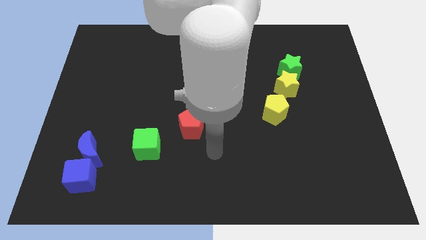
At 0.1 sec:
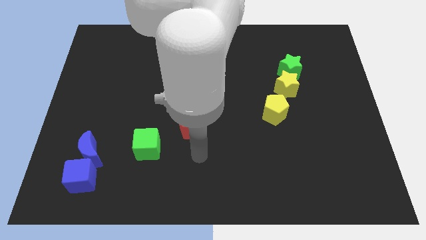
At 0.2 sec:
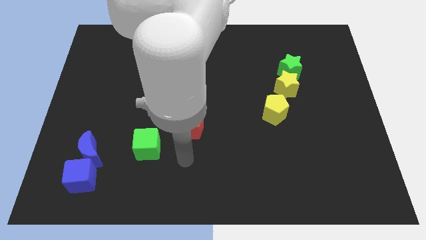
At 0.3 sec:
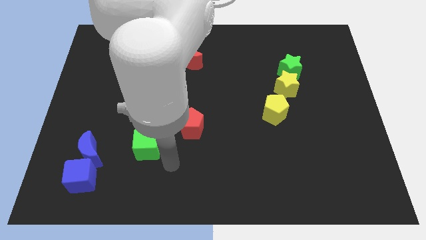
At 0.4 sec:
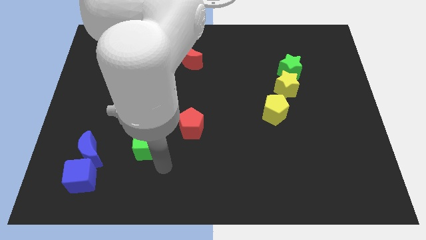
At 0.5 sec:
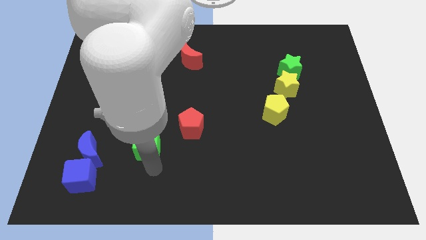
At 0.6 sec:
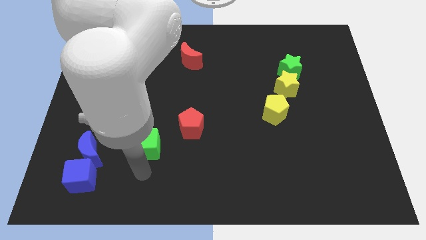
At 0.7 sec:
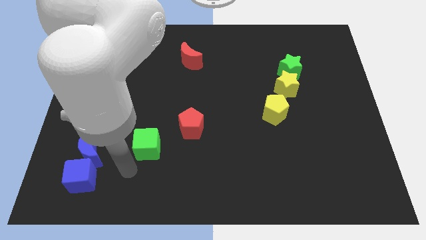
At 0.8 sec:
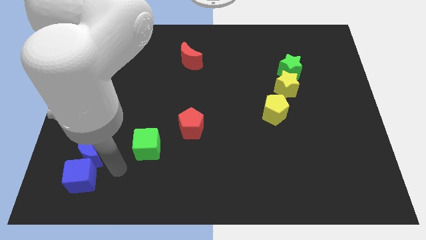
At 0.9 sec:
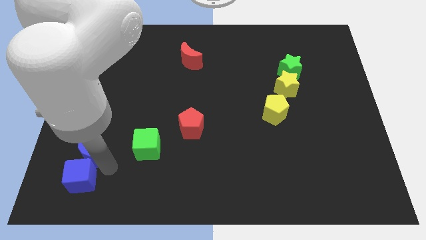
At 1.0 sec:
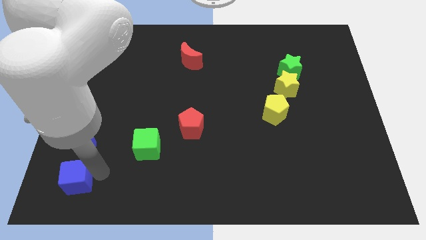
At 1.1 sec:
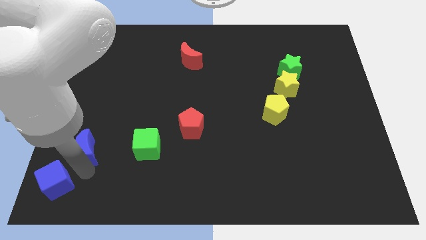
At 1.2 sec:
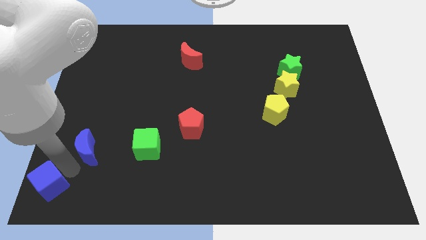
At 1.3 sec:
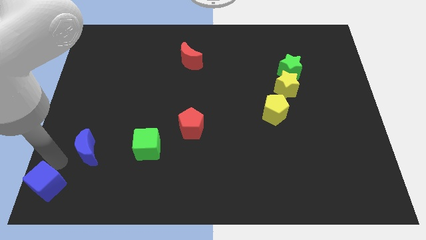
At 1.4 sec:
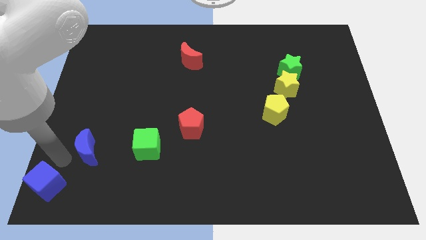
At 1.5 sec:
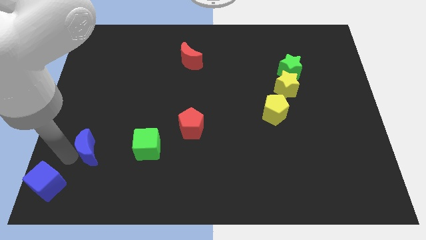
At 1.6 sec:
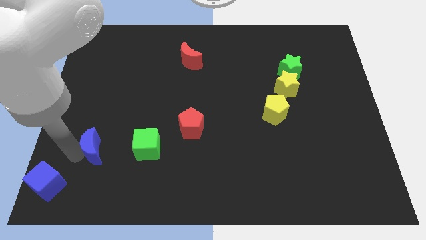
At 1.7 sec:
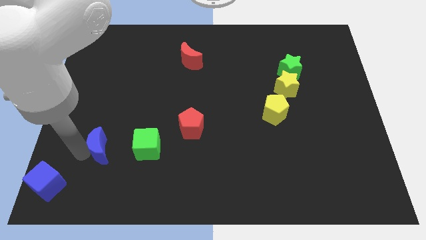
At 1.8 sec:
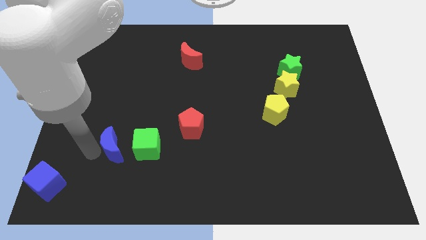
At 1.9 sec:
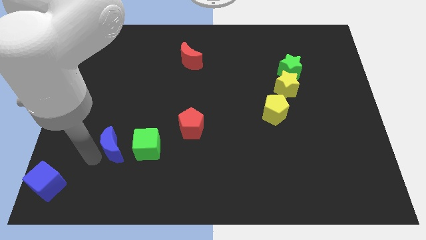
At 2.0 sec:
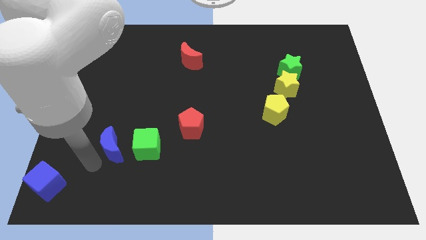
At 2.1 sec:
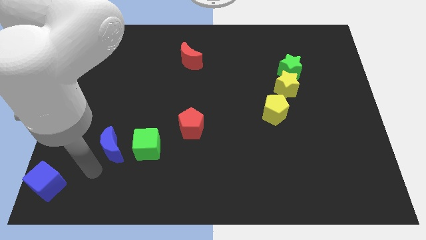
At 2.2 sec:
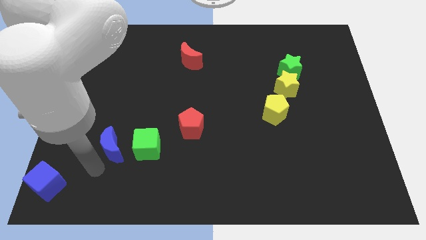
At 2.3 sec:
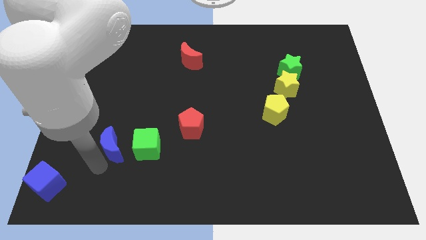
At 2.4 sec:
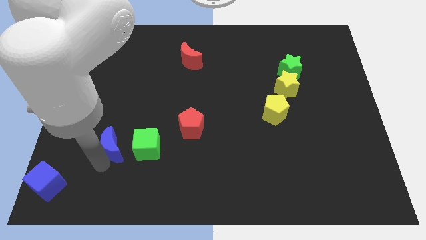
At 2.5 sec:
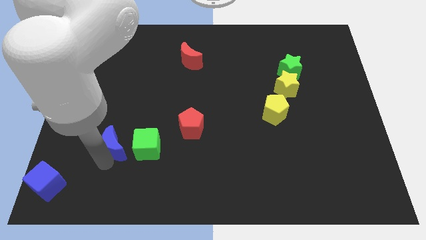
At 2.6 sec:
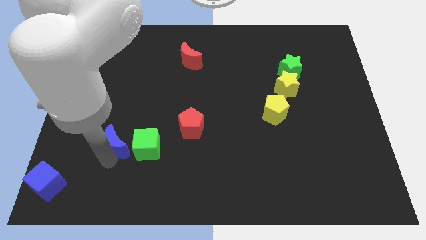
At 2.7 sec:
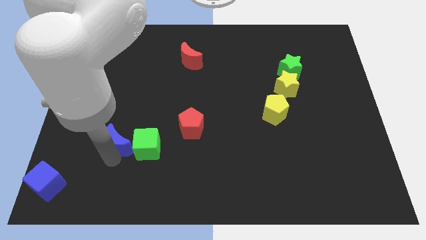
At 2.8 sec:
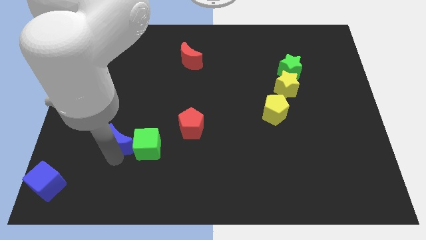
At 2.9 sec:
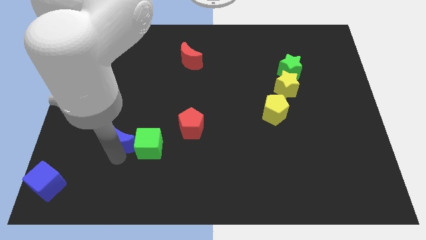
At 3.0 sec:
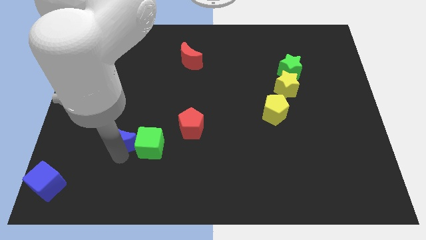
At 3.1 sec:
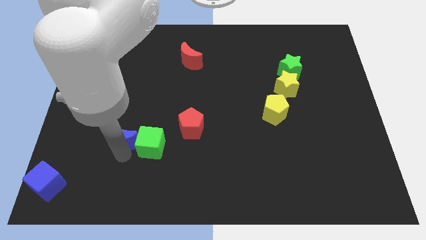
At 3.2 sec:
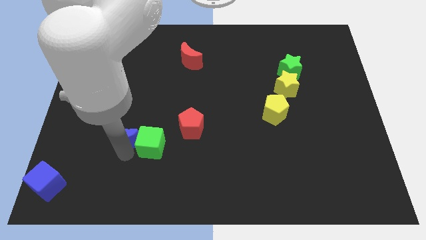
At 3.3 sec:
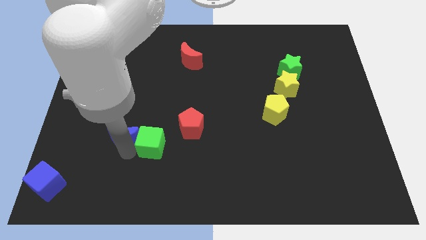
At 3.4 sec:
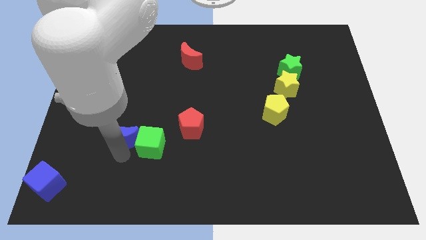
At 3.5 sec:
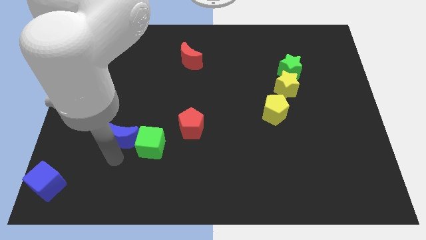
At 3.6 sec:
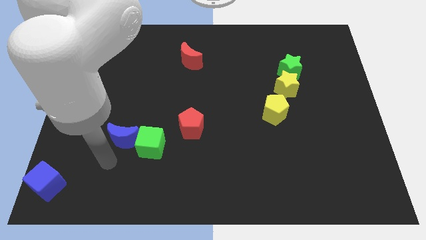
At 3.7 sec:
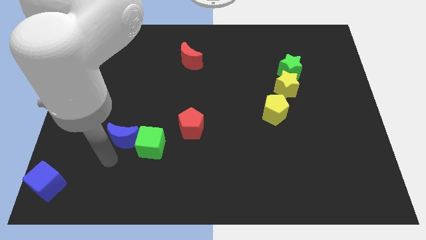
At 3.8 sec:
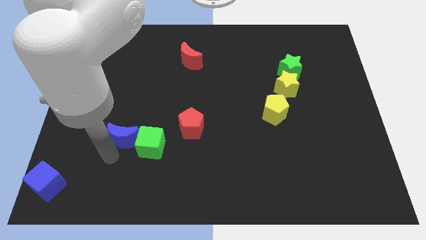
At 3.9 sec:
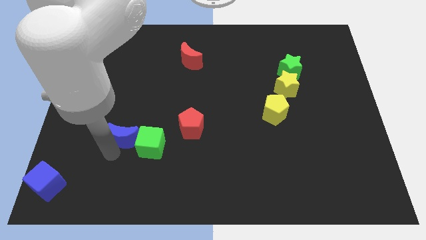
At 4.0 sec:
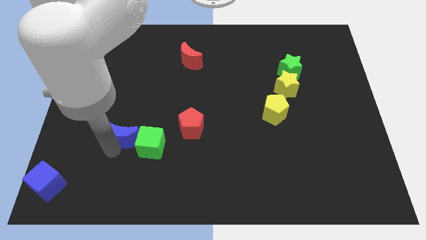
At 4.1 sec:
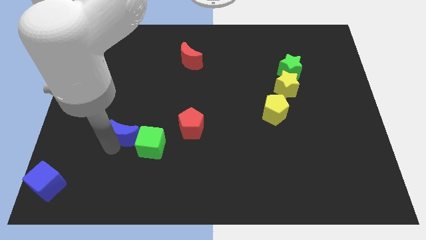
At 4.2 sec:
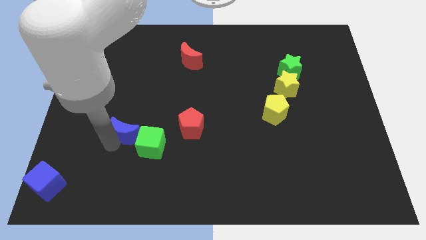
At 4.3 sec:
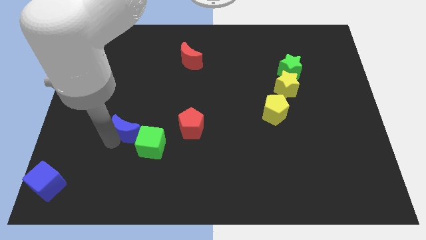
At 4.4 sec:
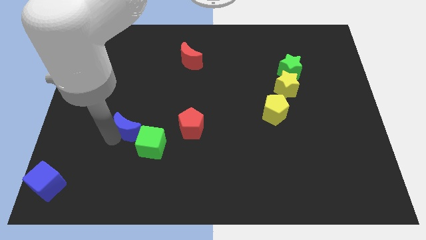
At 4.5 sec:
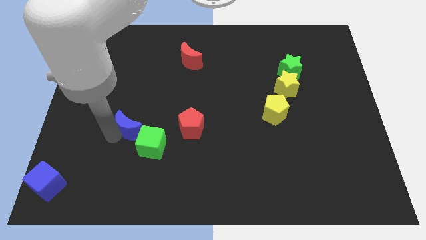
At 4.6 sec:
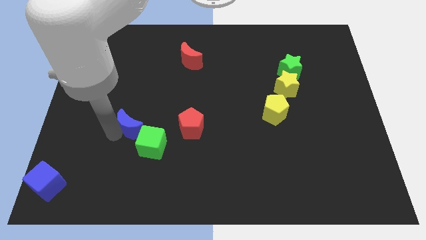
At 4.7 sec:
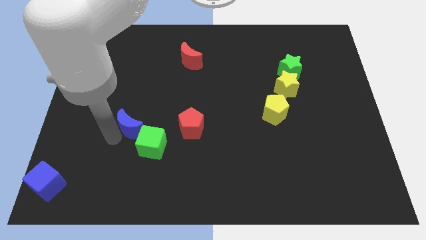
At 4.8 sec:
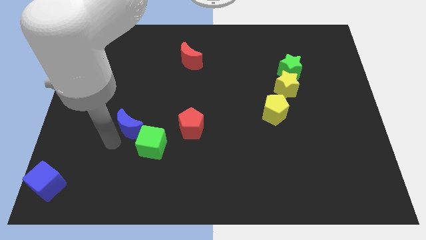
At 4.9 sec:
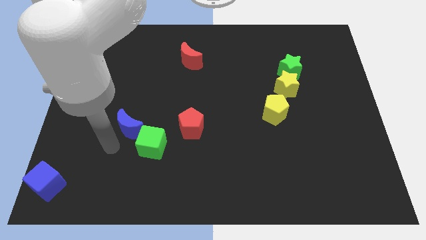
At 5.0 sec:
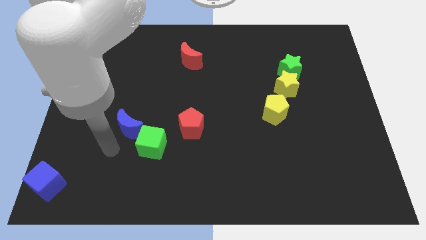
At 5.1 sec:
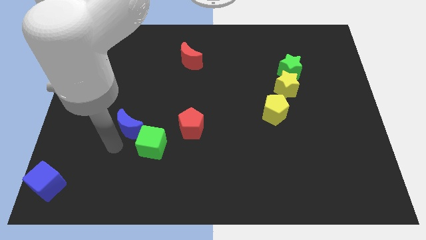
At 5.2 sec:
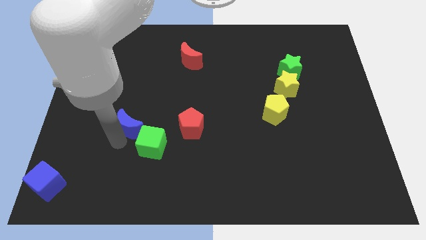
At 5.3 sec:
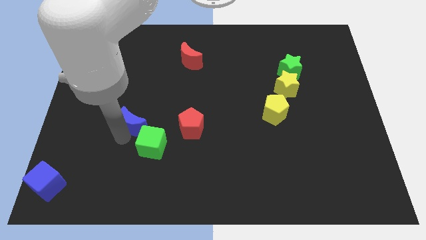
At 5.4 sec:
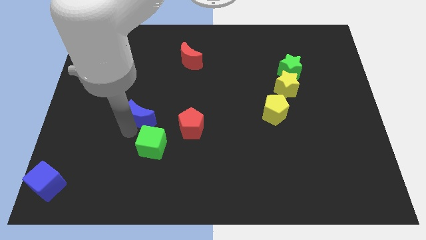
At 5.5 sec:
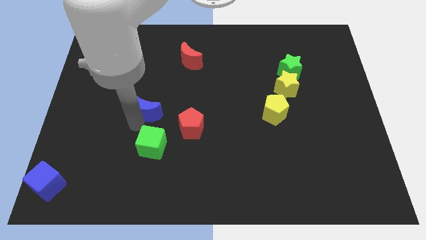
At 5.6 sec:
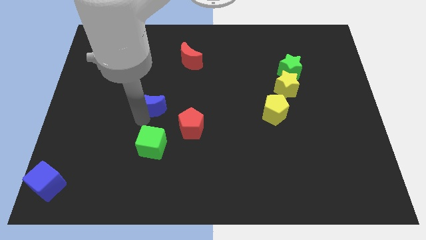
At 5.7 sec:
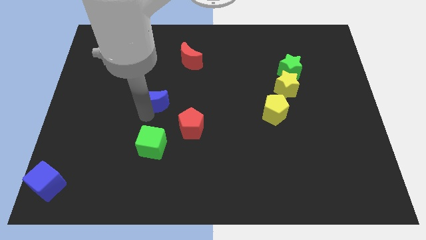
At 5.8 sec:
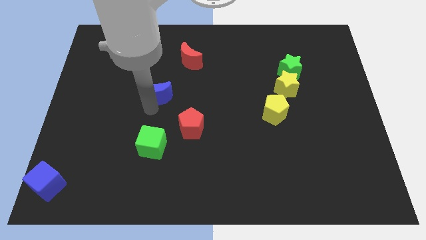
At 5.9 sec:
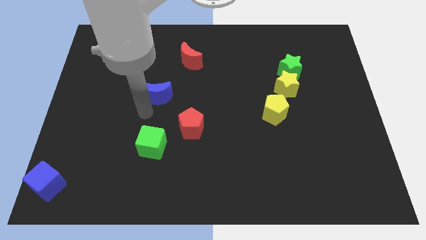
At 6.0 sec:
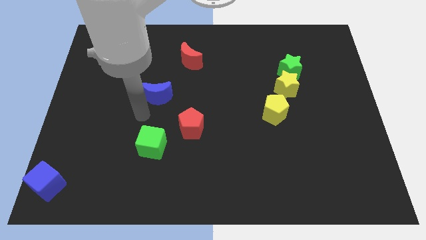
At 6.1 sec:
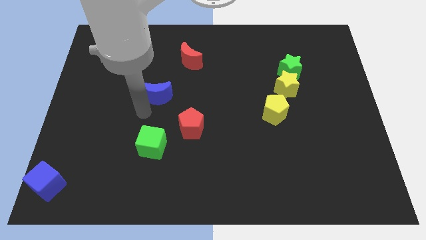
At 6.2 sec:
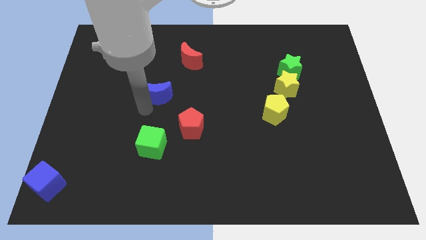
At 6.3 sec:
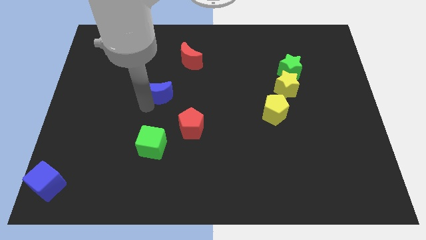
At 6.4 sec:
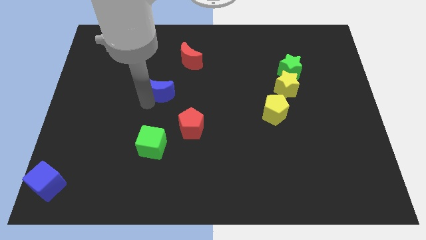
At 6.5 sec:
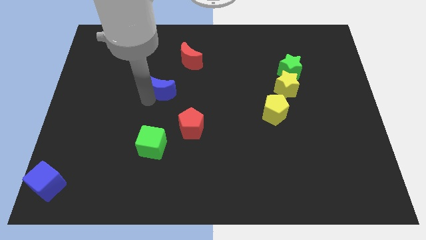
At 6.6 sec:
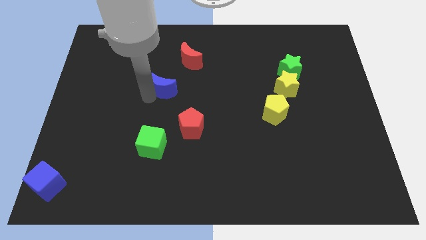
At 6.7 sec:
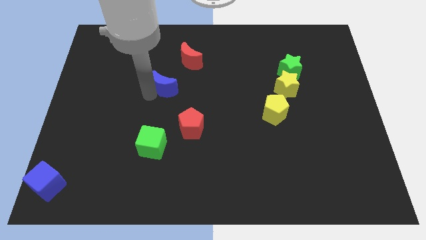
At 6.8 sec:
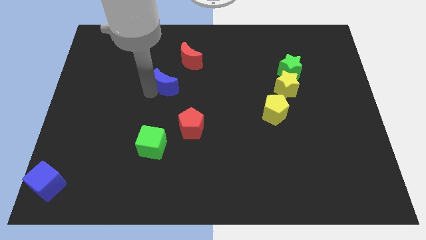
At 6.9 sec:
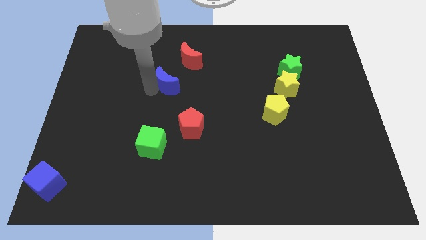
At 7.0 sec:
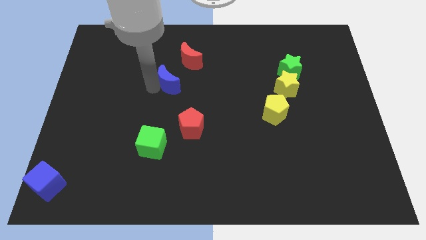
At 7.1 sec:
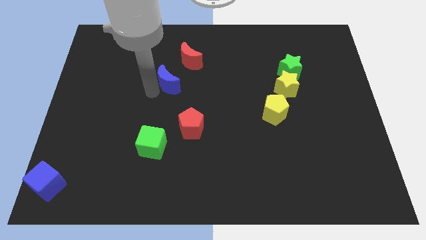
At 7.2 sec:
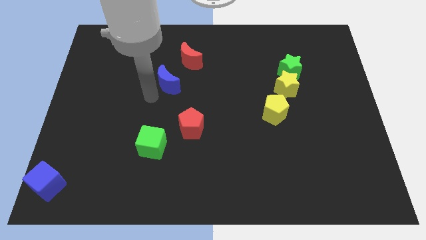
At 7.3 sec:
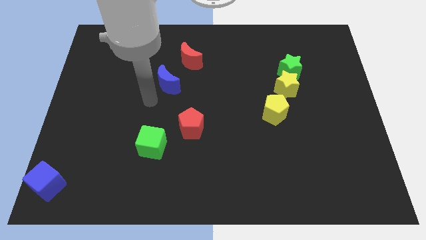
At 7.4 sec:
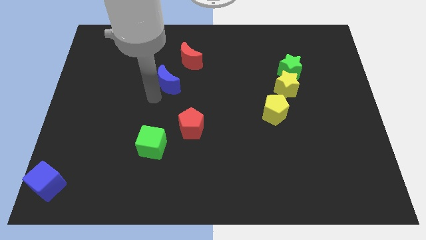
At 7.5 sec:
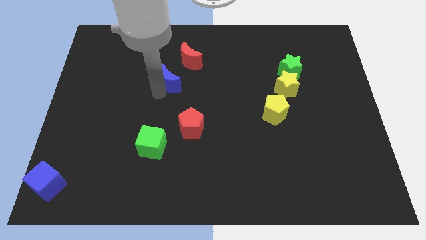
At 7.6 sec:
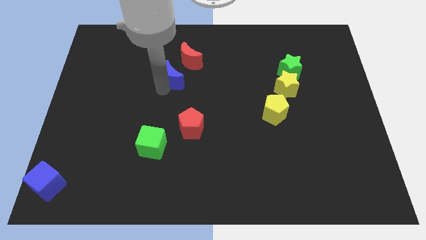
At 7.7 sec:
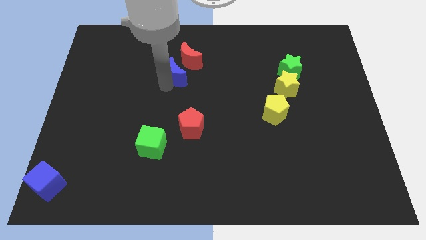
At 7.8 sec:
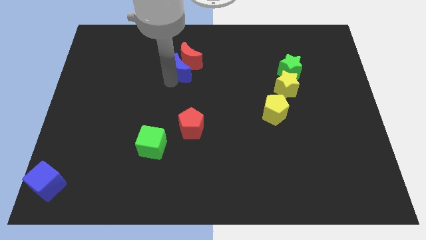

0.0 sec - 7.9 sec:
move the blue moon close to the red moon

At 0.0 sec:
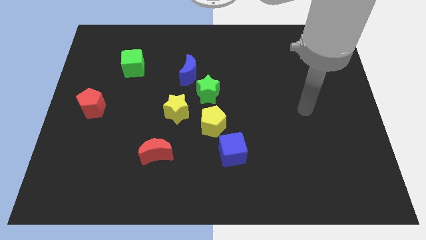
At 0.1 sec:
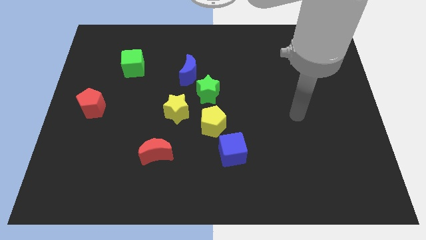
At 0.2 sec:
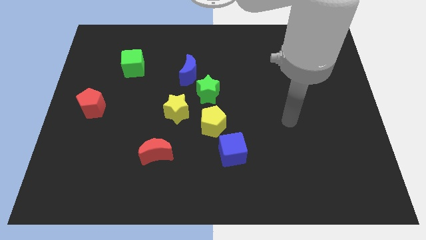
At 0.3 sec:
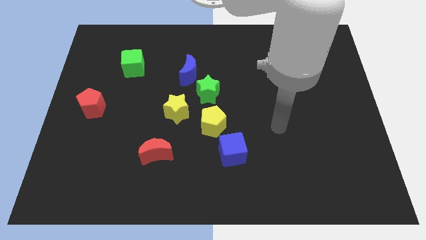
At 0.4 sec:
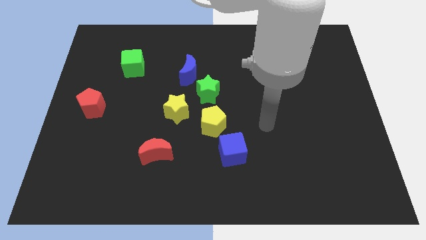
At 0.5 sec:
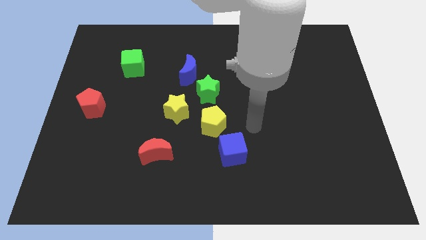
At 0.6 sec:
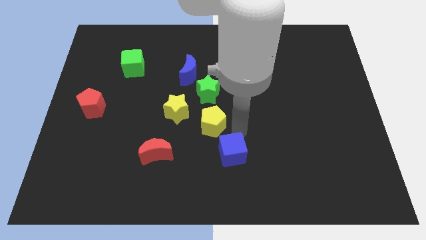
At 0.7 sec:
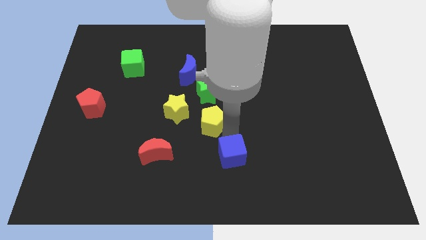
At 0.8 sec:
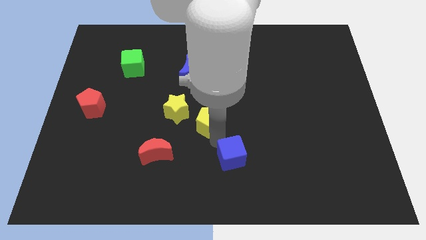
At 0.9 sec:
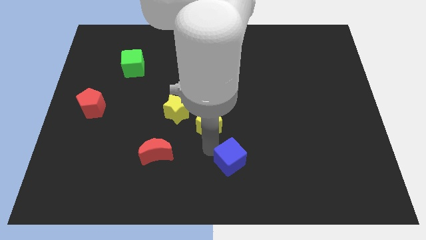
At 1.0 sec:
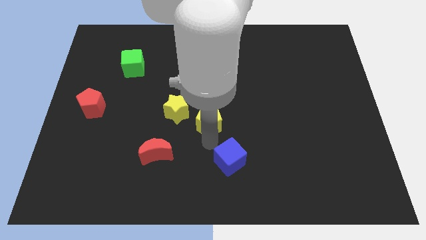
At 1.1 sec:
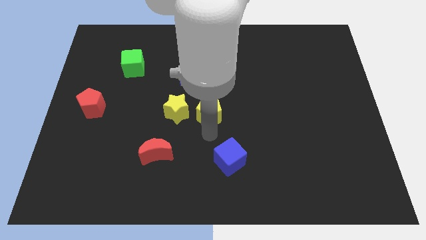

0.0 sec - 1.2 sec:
slide the yellow pentagon to the green star
